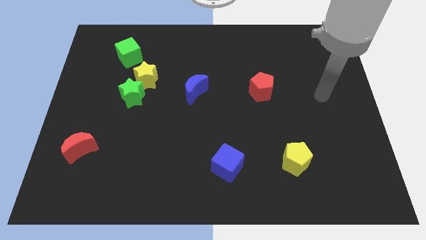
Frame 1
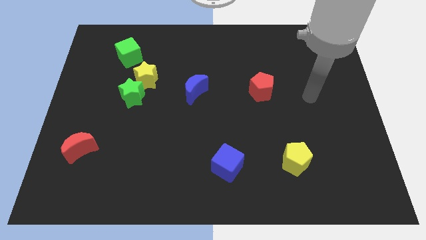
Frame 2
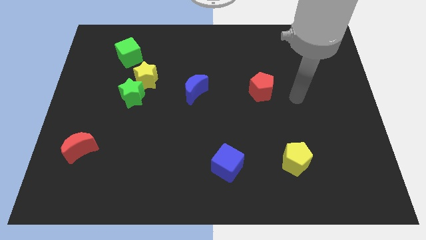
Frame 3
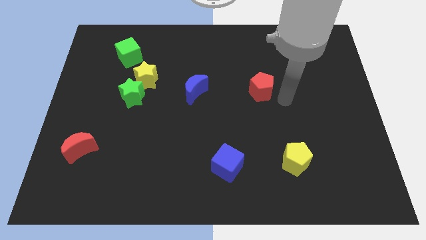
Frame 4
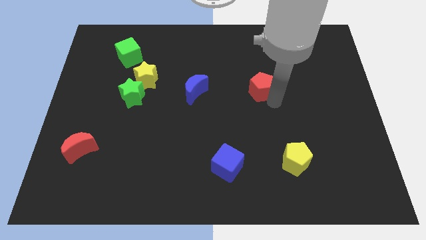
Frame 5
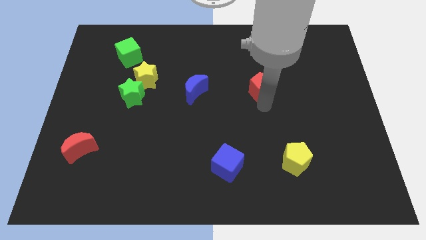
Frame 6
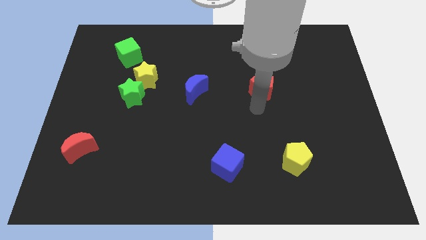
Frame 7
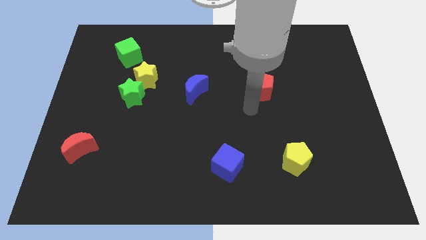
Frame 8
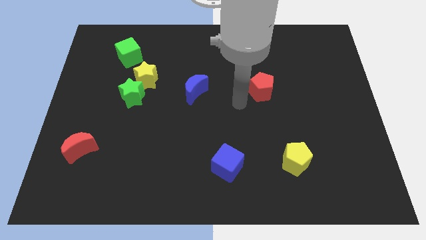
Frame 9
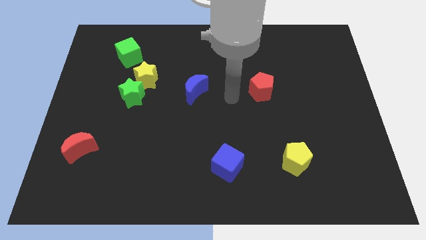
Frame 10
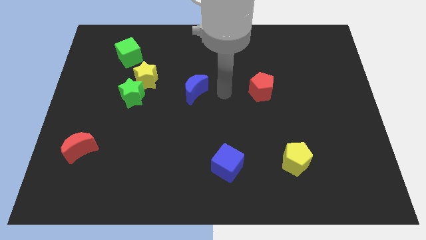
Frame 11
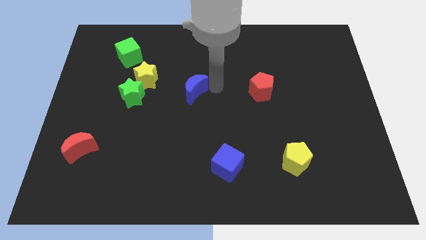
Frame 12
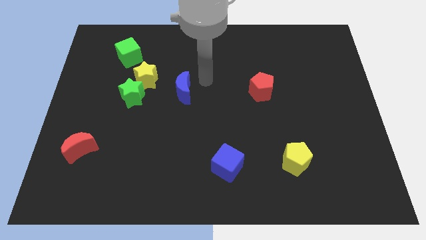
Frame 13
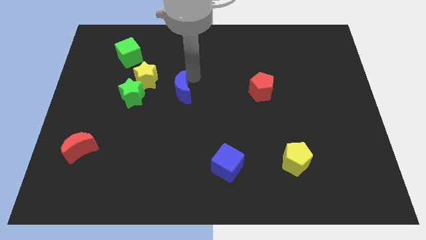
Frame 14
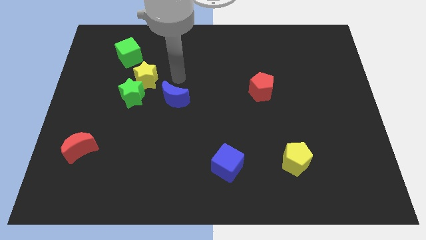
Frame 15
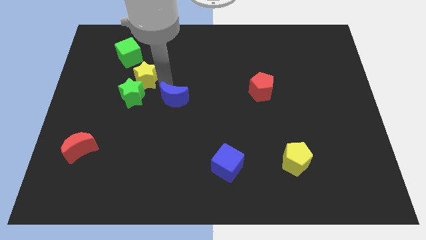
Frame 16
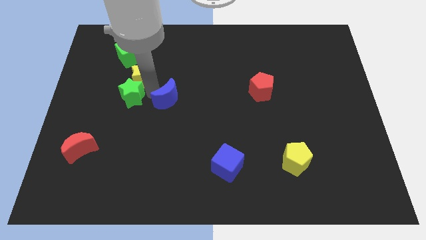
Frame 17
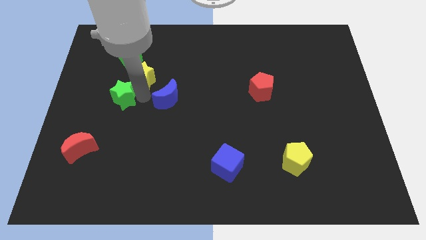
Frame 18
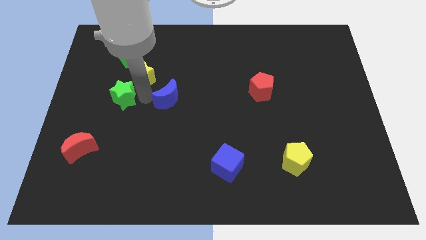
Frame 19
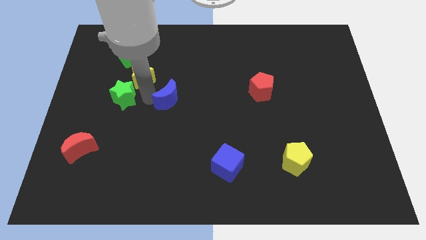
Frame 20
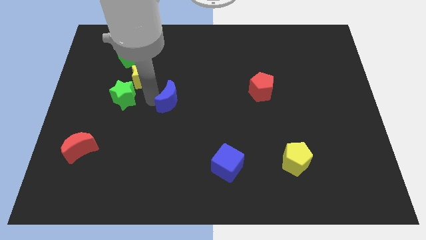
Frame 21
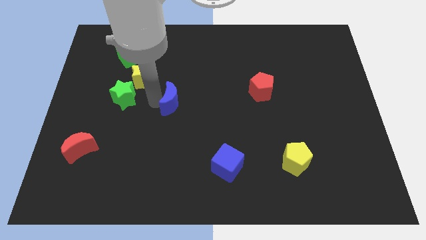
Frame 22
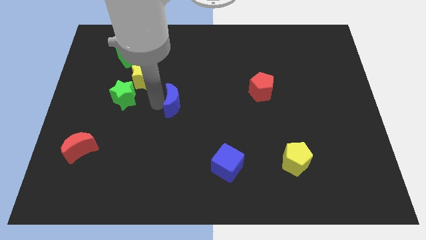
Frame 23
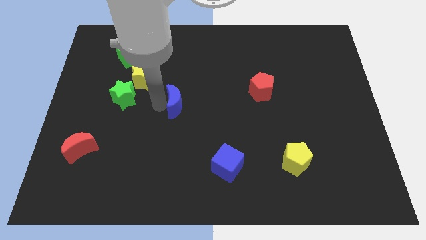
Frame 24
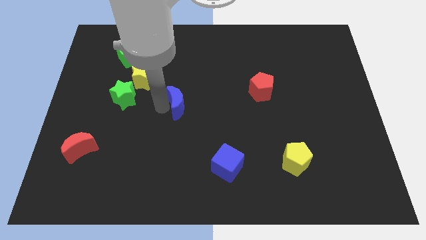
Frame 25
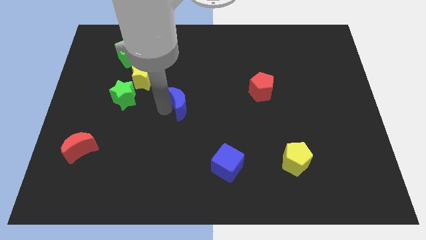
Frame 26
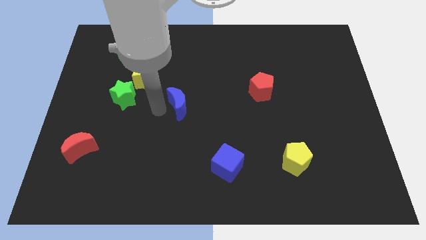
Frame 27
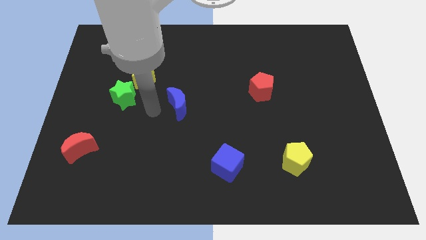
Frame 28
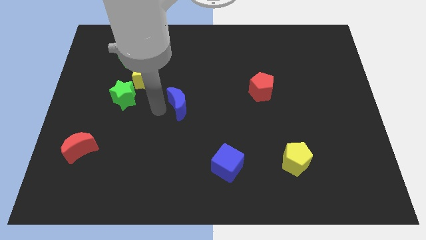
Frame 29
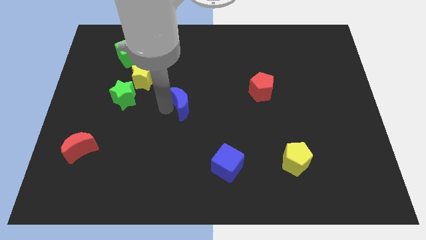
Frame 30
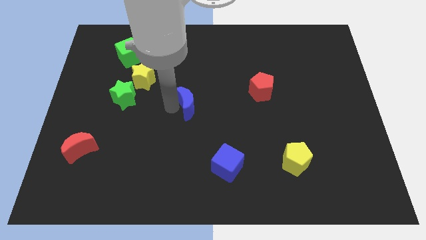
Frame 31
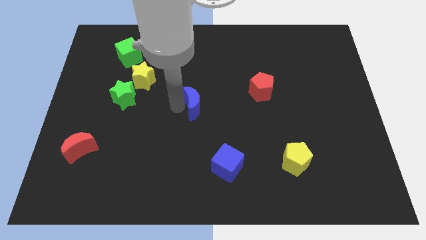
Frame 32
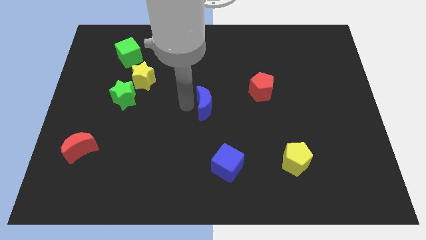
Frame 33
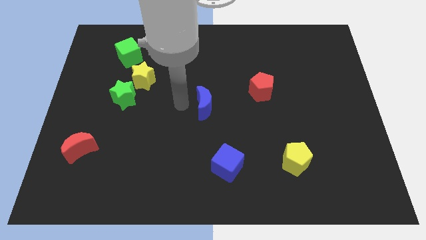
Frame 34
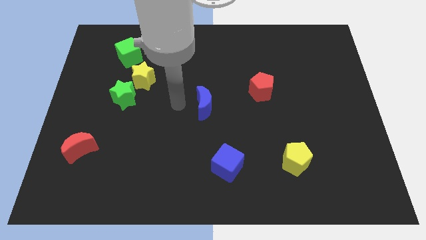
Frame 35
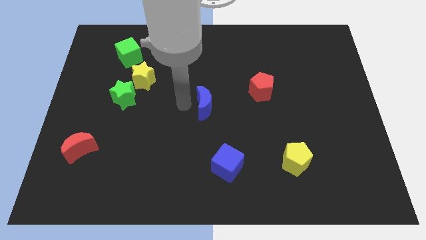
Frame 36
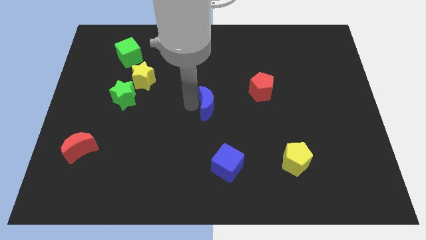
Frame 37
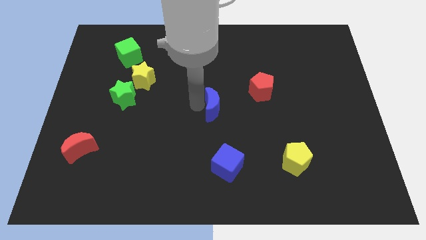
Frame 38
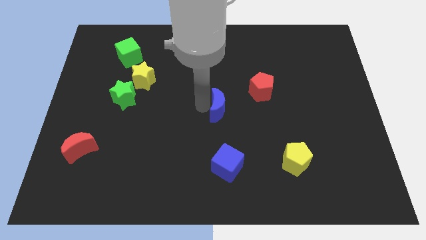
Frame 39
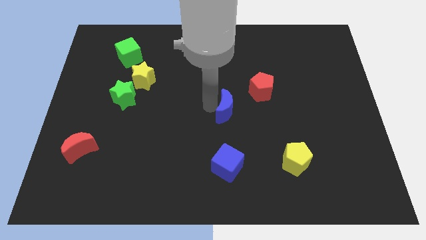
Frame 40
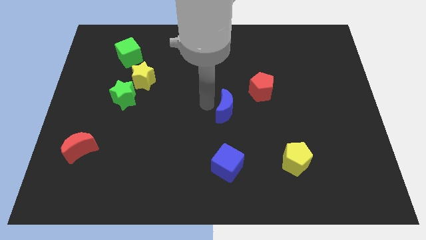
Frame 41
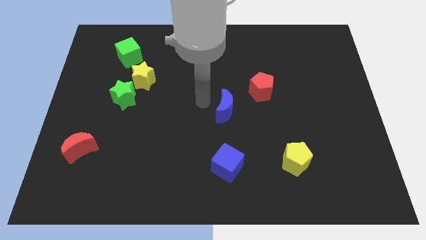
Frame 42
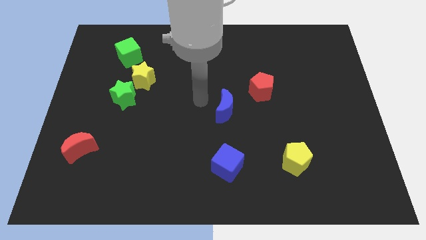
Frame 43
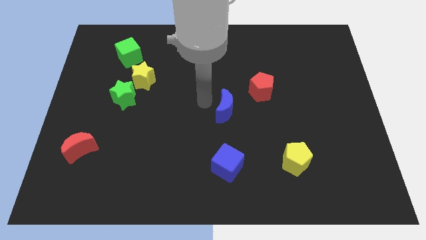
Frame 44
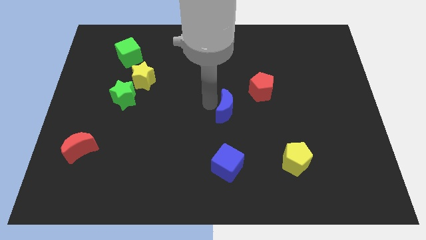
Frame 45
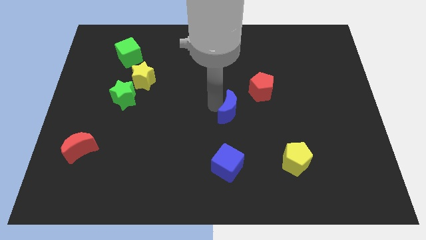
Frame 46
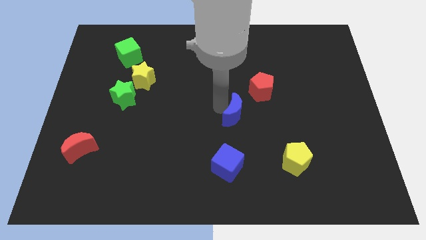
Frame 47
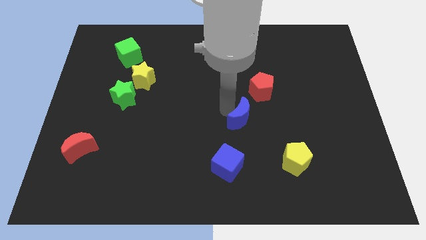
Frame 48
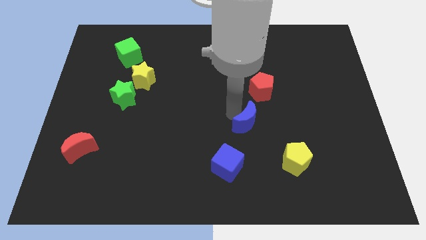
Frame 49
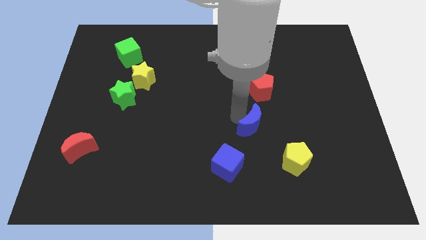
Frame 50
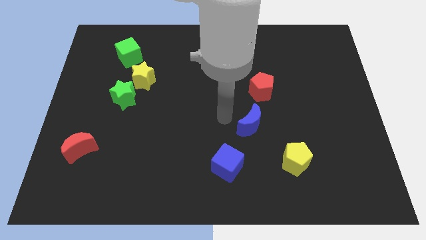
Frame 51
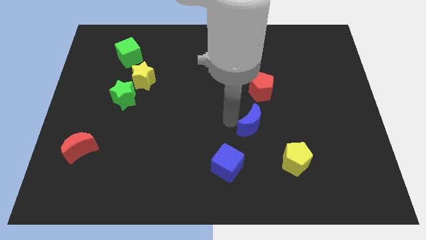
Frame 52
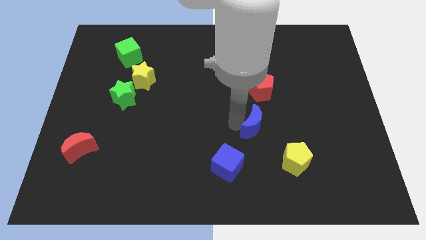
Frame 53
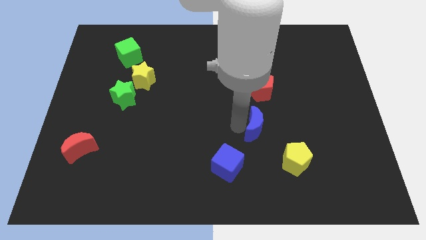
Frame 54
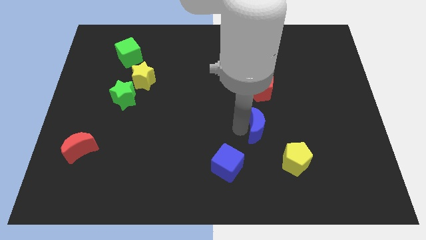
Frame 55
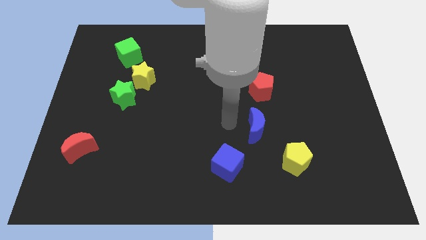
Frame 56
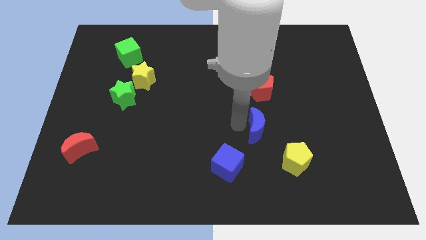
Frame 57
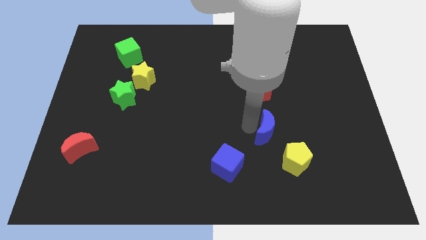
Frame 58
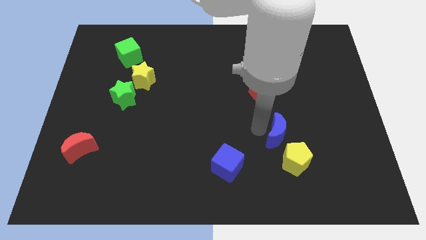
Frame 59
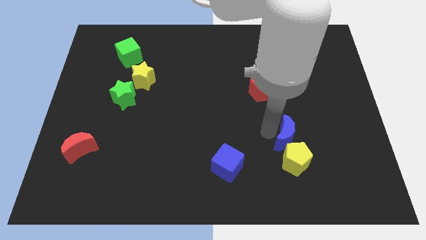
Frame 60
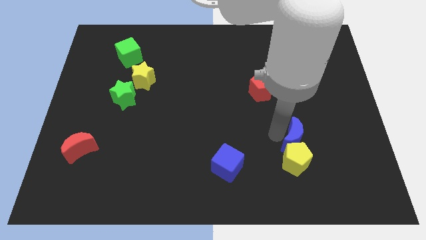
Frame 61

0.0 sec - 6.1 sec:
move the blue moon to the top right side of the yellow pentagon

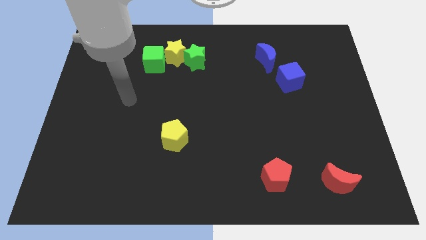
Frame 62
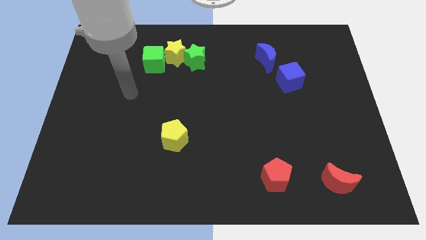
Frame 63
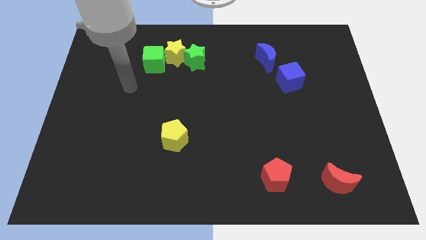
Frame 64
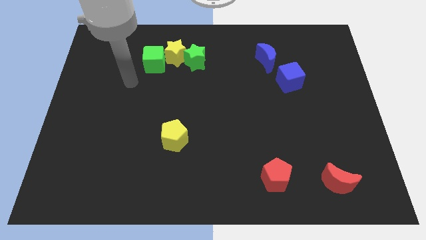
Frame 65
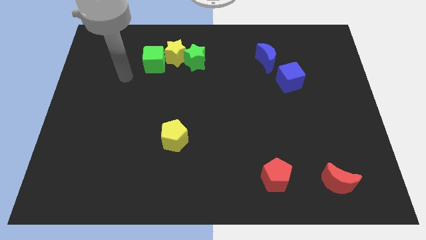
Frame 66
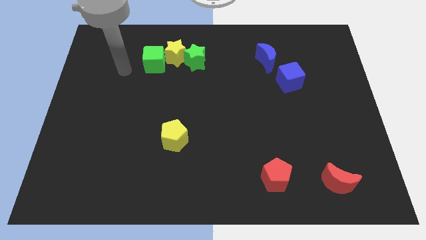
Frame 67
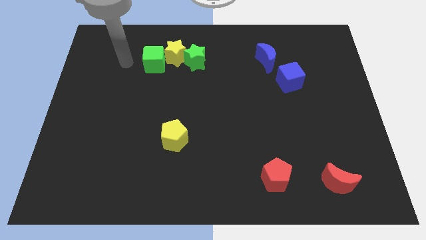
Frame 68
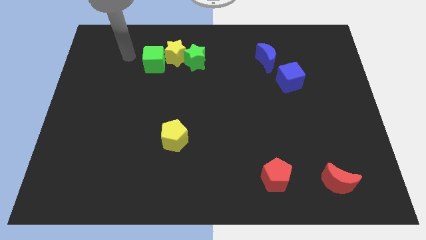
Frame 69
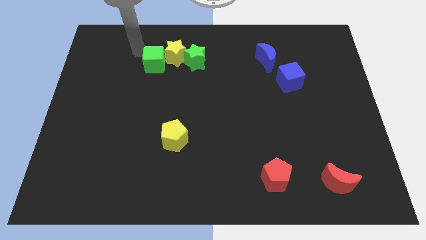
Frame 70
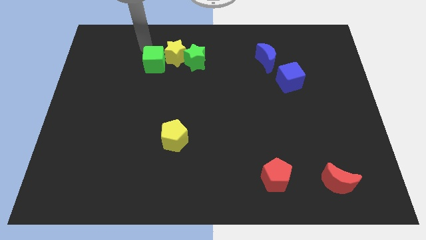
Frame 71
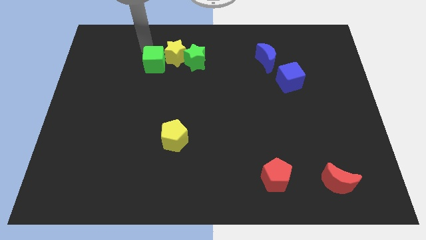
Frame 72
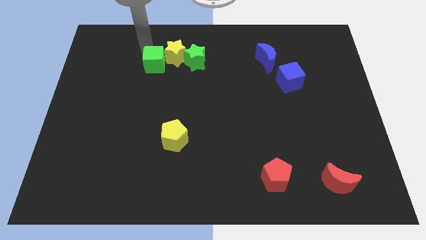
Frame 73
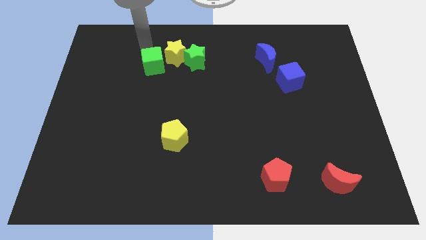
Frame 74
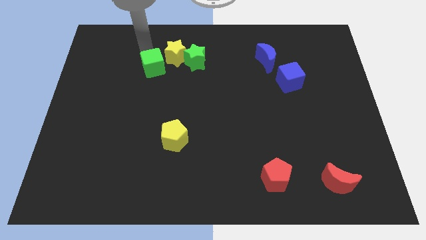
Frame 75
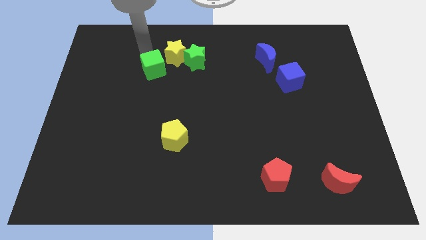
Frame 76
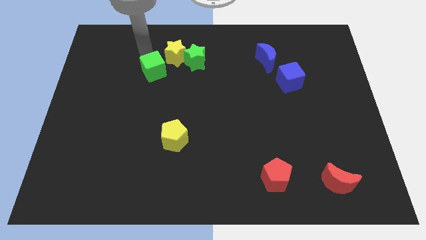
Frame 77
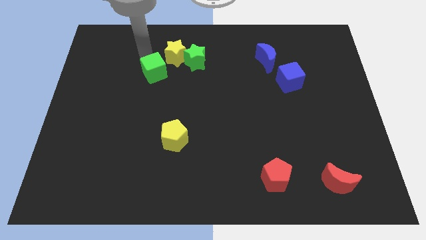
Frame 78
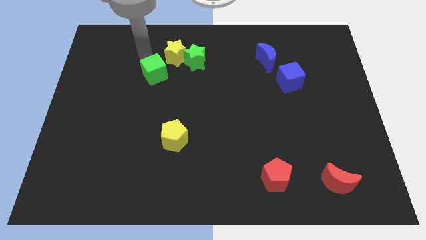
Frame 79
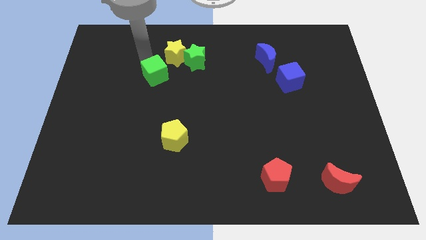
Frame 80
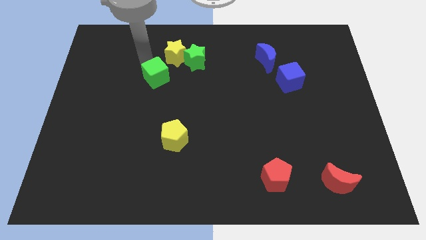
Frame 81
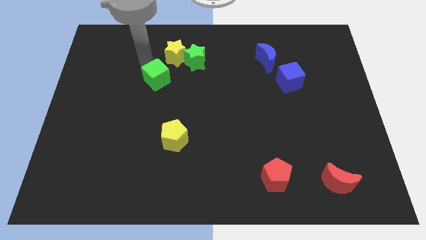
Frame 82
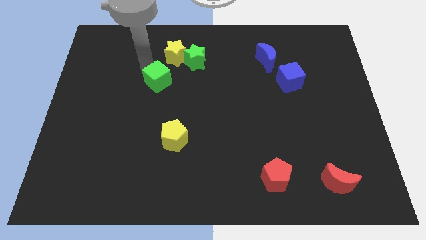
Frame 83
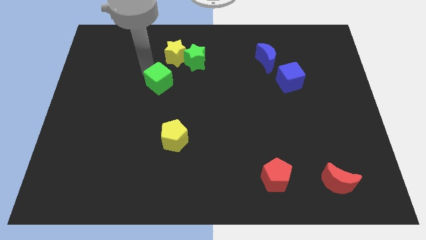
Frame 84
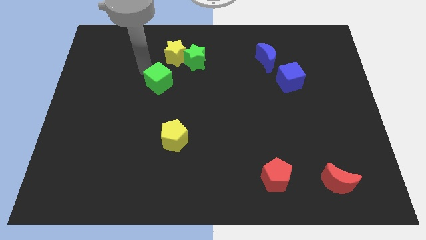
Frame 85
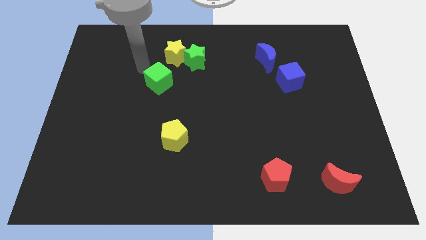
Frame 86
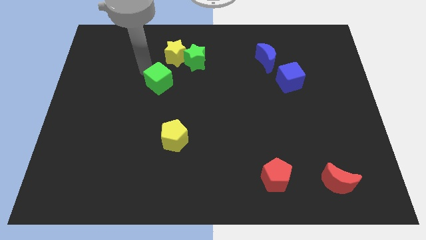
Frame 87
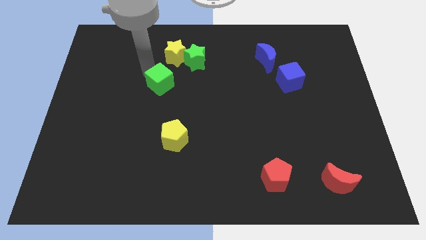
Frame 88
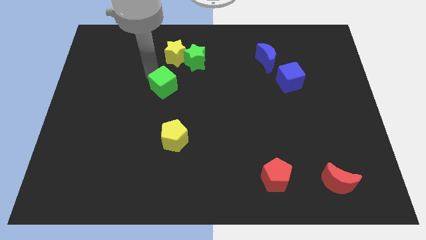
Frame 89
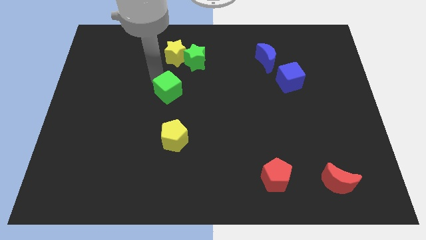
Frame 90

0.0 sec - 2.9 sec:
push the green cube to the top of the yellow pentagon
